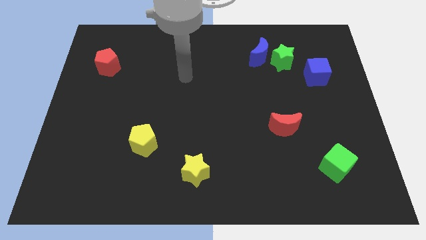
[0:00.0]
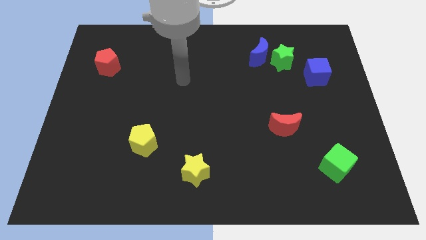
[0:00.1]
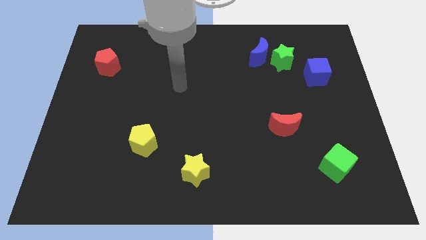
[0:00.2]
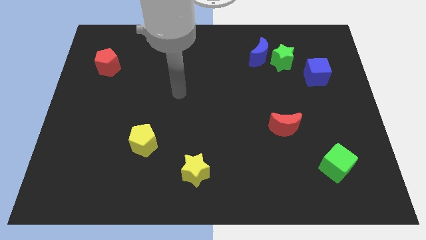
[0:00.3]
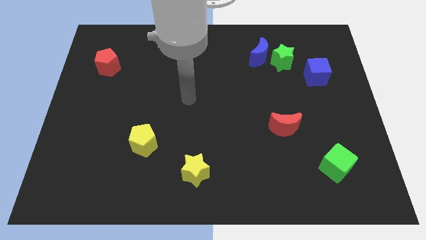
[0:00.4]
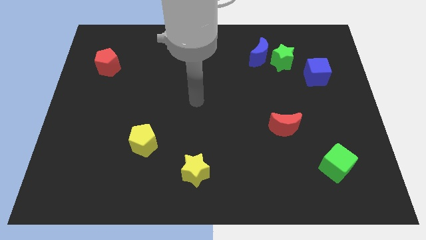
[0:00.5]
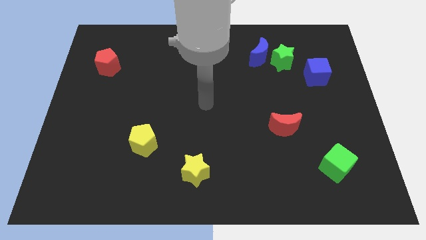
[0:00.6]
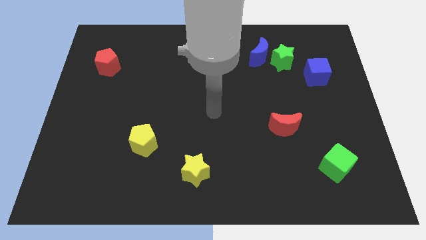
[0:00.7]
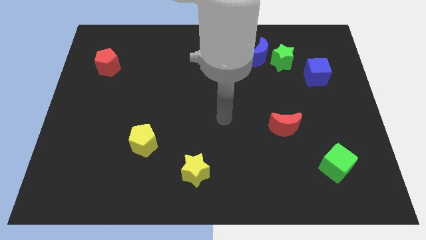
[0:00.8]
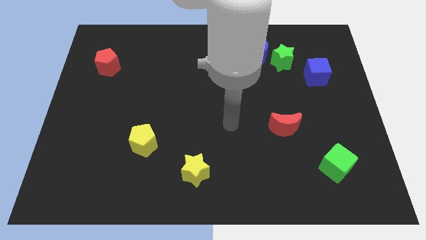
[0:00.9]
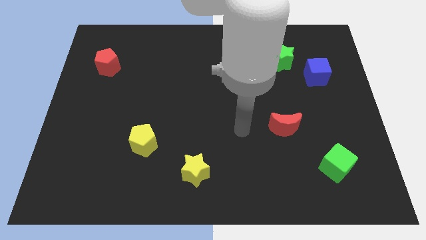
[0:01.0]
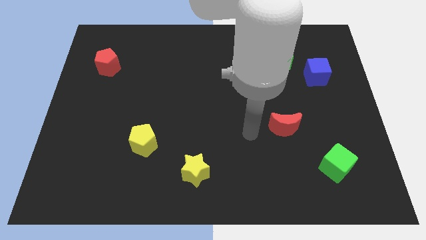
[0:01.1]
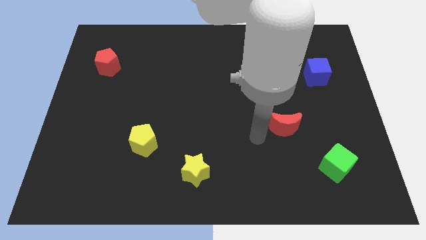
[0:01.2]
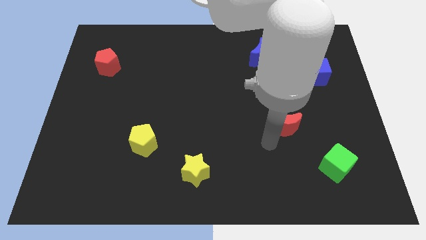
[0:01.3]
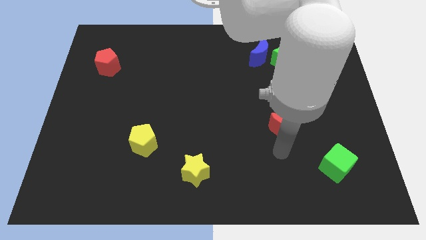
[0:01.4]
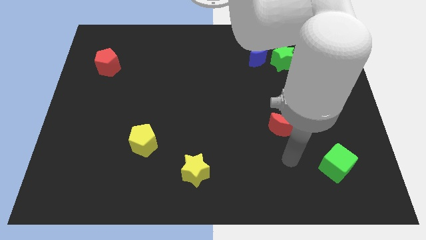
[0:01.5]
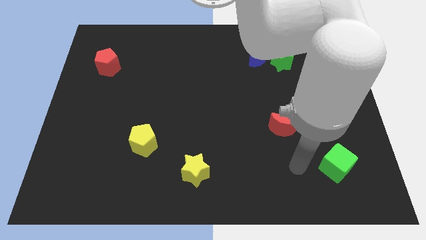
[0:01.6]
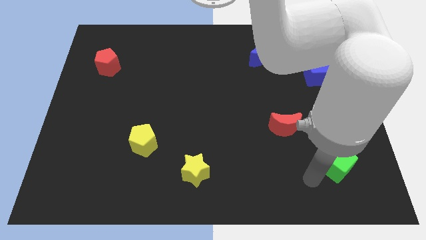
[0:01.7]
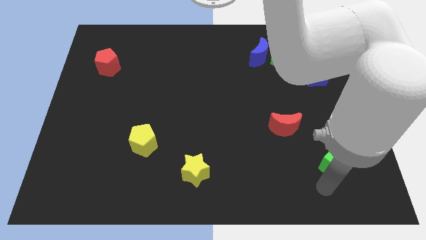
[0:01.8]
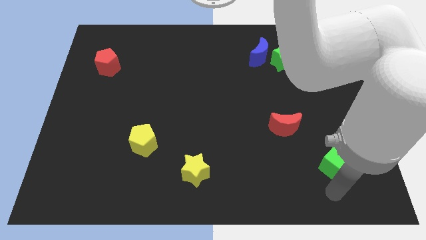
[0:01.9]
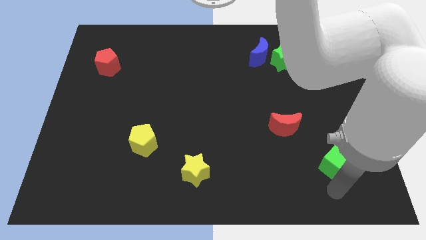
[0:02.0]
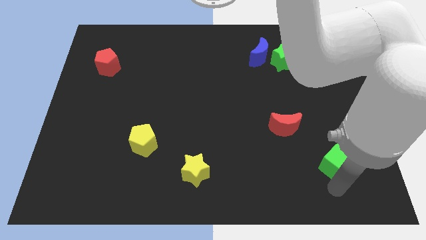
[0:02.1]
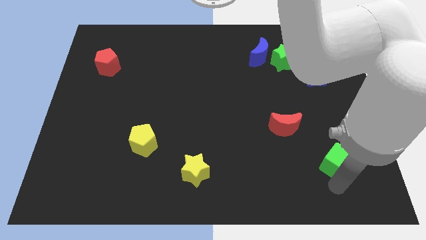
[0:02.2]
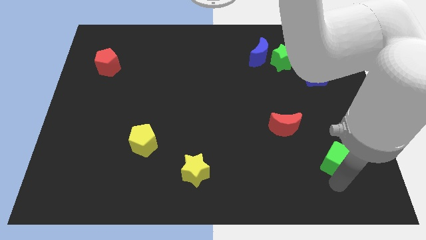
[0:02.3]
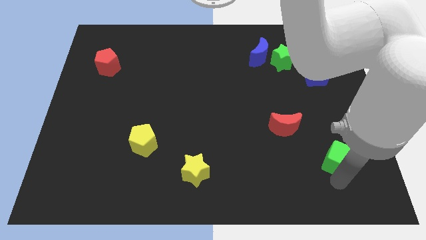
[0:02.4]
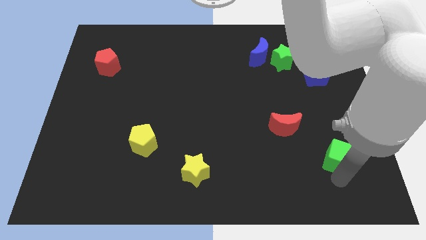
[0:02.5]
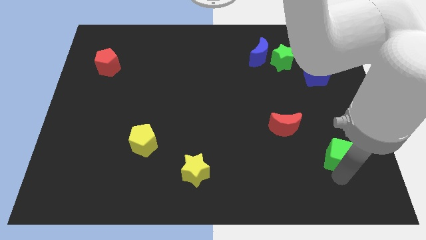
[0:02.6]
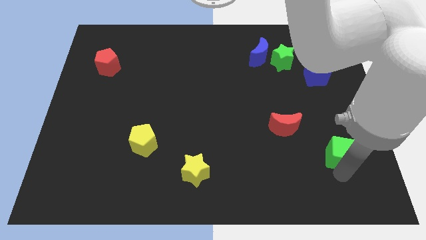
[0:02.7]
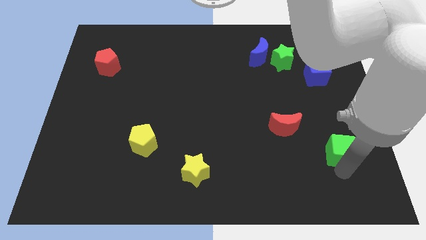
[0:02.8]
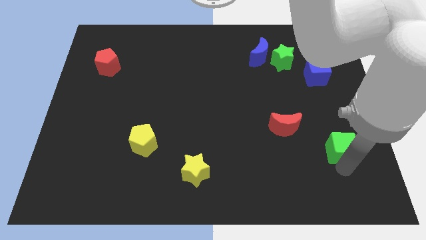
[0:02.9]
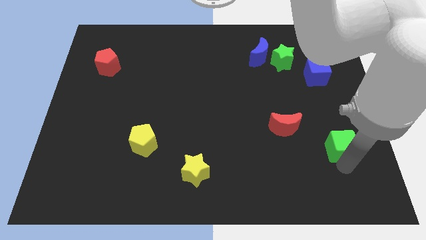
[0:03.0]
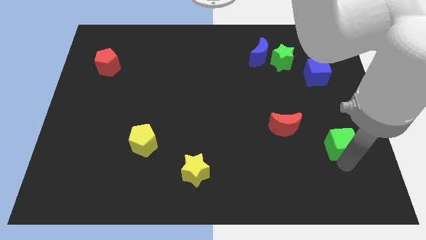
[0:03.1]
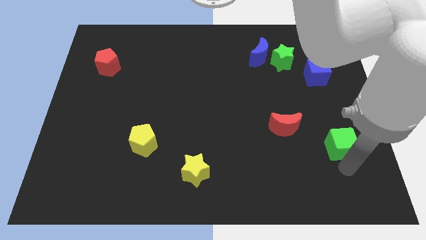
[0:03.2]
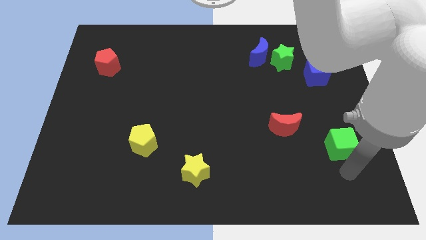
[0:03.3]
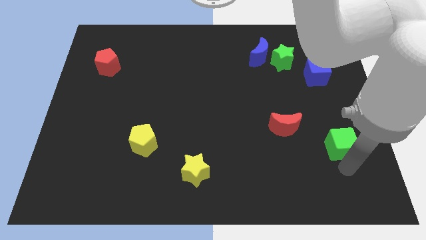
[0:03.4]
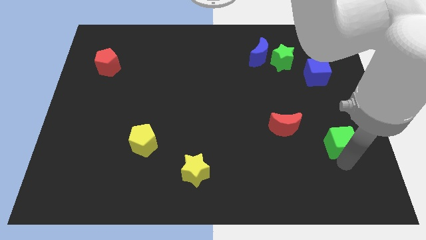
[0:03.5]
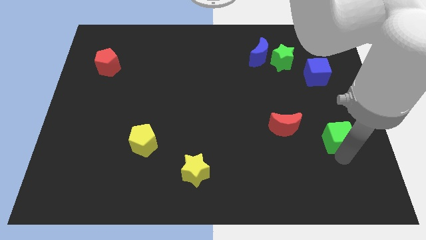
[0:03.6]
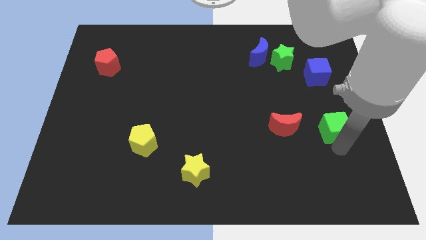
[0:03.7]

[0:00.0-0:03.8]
slightly move the green cube up

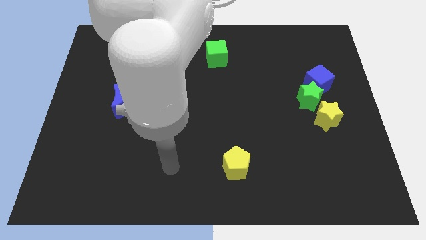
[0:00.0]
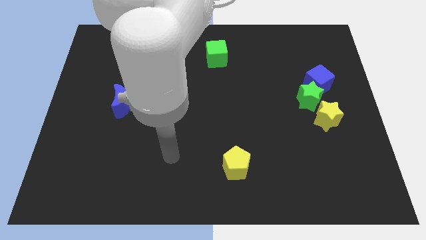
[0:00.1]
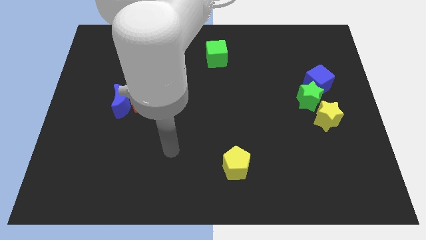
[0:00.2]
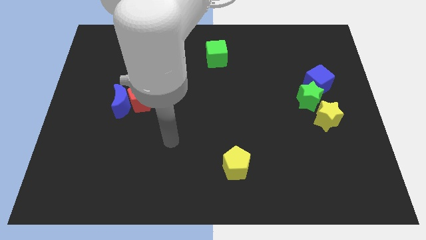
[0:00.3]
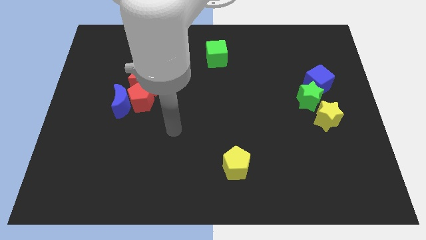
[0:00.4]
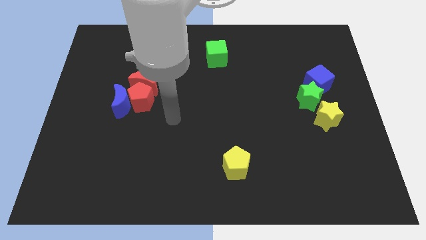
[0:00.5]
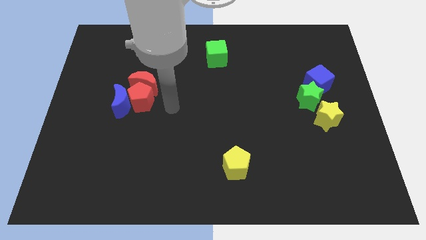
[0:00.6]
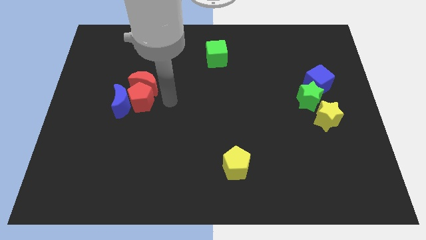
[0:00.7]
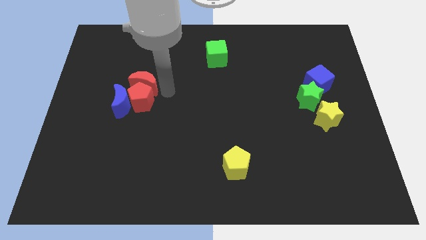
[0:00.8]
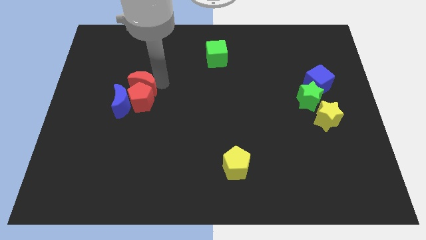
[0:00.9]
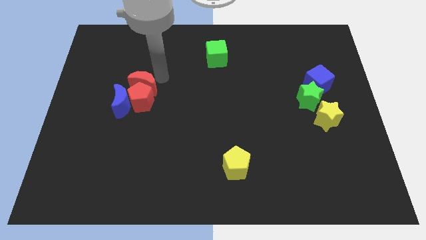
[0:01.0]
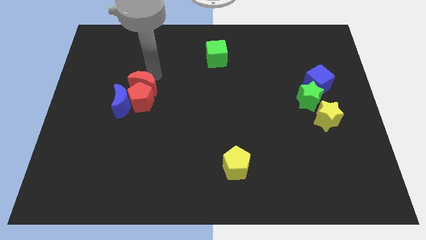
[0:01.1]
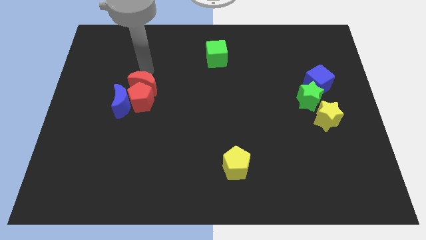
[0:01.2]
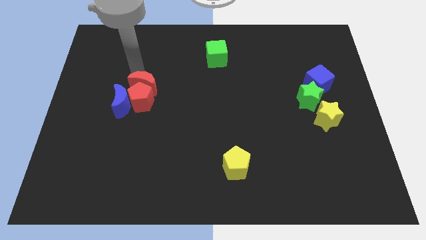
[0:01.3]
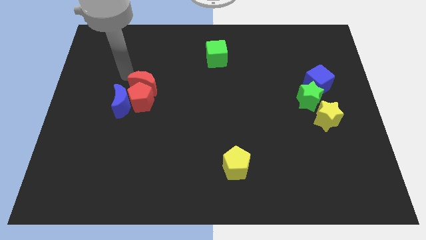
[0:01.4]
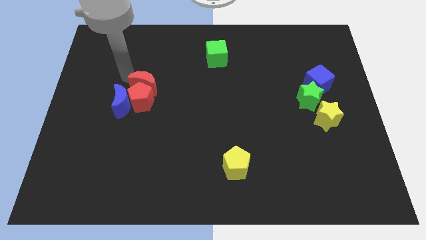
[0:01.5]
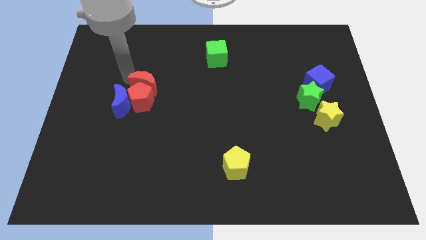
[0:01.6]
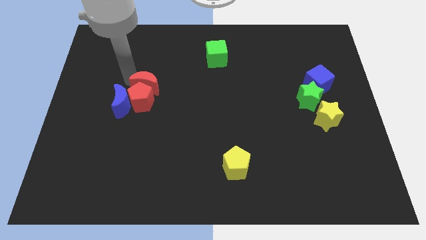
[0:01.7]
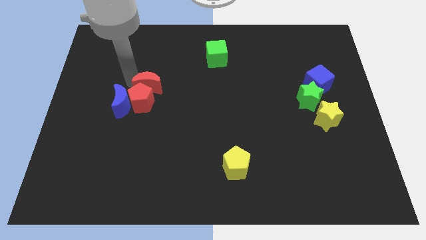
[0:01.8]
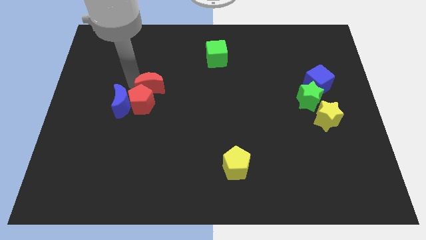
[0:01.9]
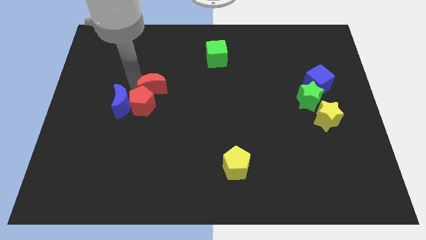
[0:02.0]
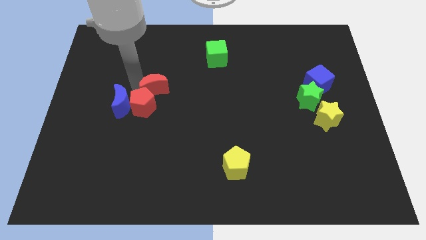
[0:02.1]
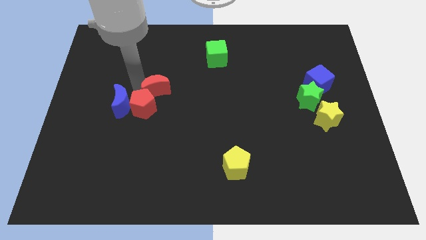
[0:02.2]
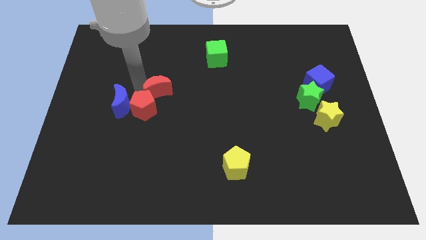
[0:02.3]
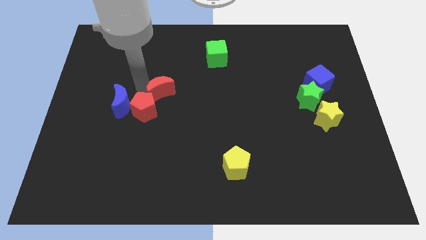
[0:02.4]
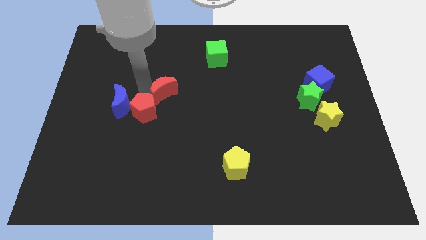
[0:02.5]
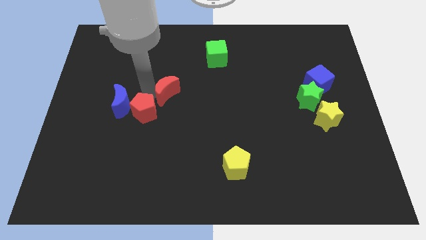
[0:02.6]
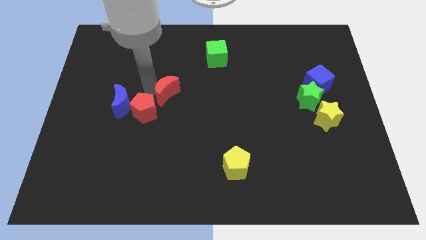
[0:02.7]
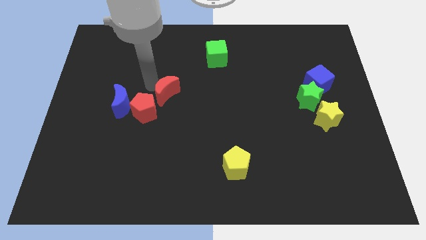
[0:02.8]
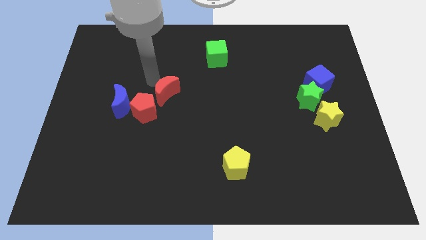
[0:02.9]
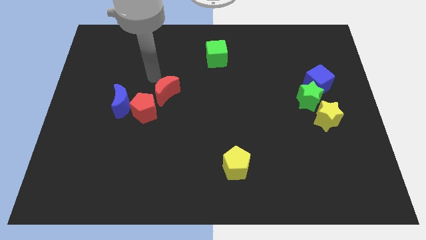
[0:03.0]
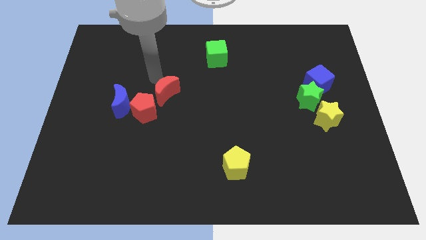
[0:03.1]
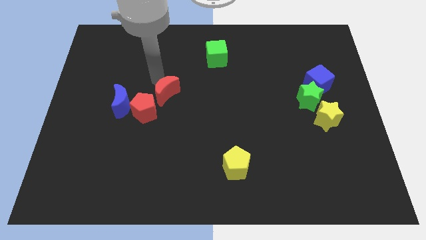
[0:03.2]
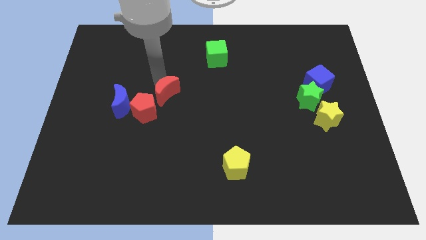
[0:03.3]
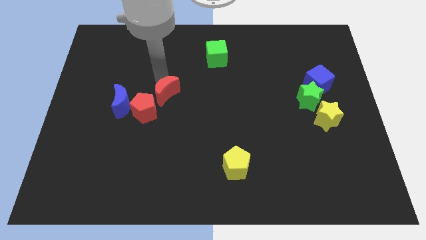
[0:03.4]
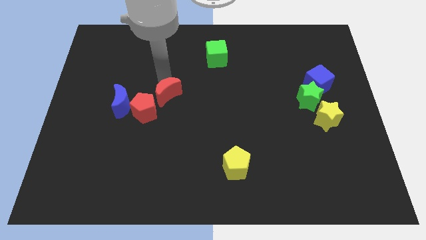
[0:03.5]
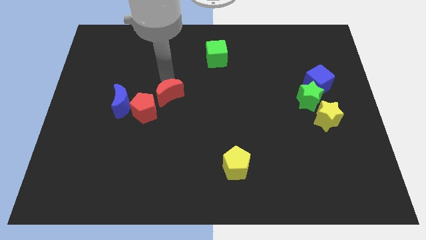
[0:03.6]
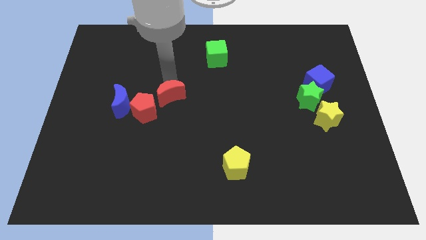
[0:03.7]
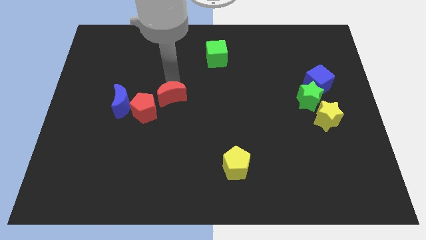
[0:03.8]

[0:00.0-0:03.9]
move the red moon a little diagonally downwards and right

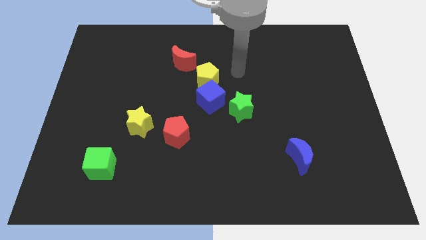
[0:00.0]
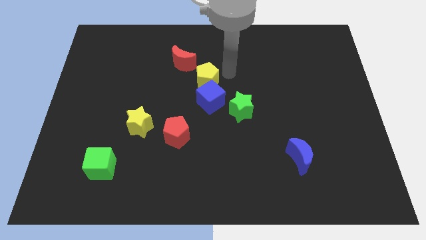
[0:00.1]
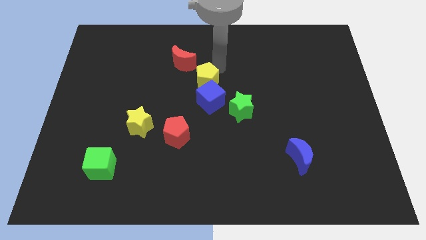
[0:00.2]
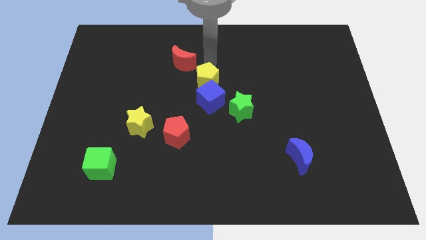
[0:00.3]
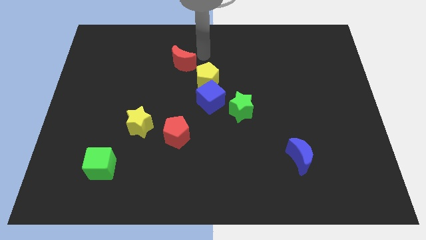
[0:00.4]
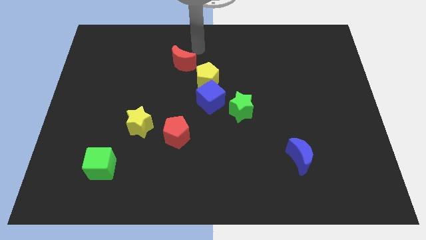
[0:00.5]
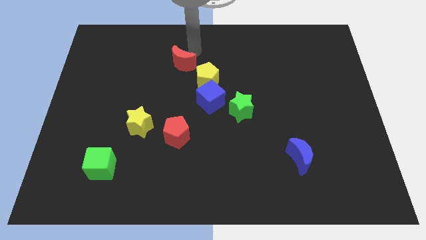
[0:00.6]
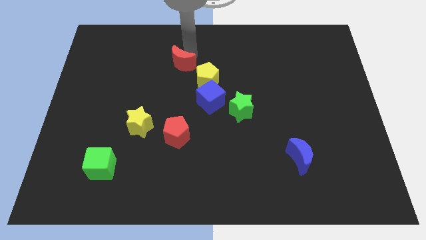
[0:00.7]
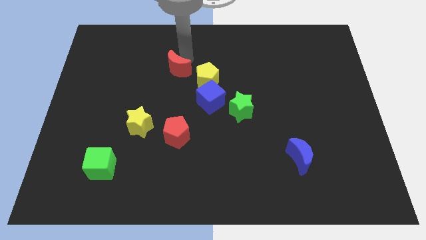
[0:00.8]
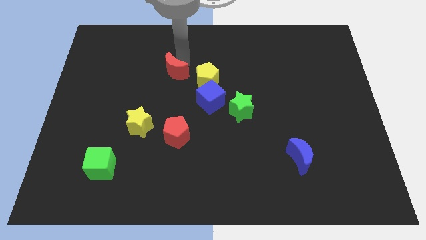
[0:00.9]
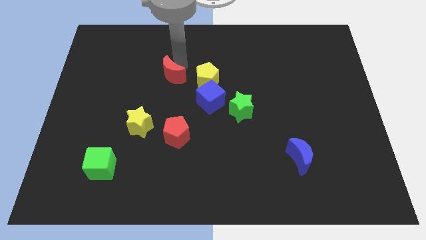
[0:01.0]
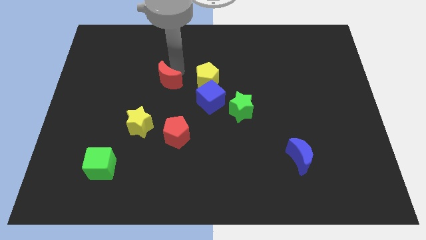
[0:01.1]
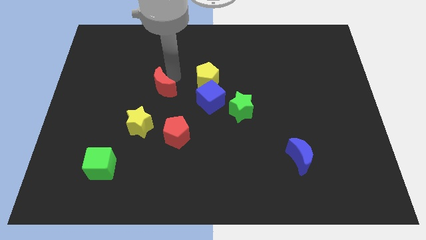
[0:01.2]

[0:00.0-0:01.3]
push the red moon a bit diagonally down and left
